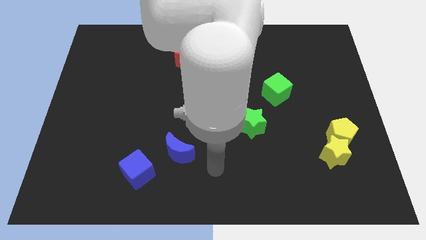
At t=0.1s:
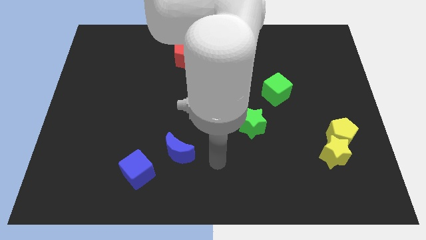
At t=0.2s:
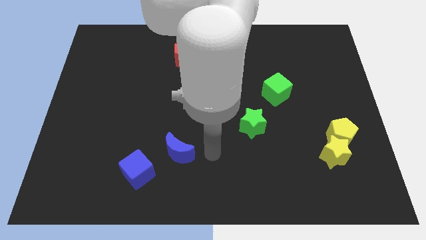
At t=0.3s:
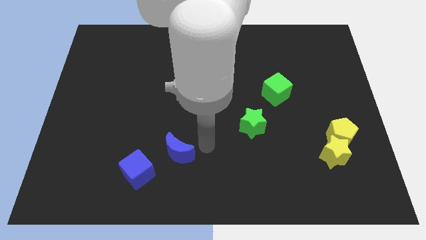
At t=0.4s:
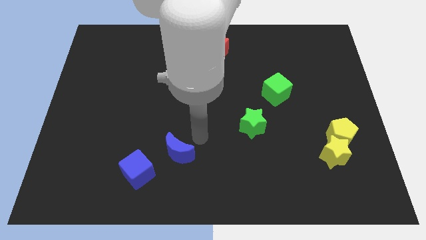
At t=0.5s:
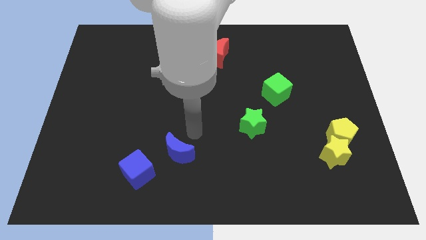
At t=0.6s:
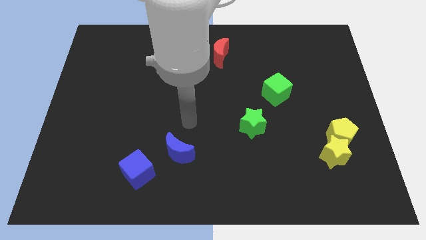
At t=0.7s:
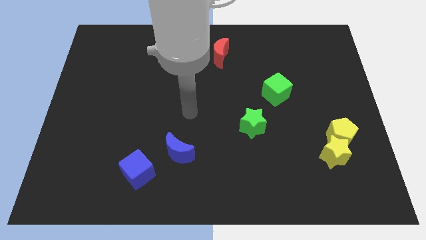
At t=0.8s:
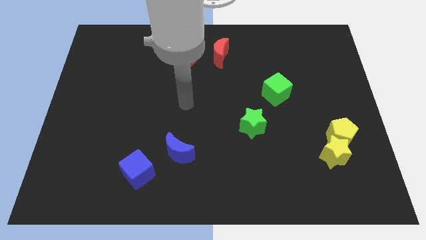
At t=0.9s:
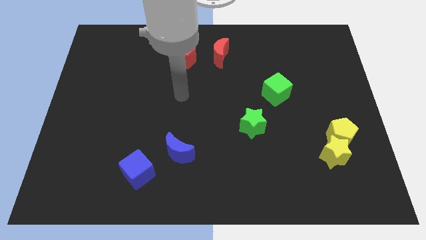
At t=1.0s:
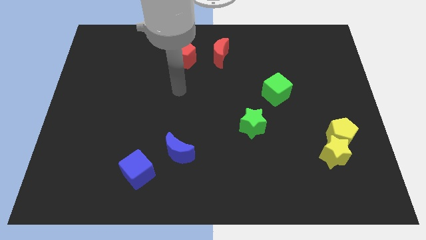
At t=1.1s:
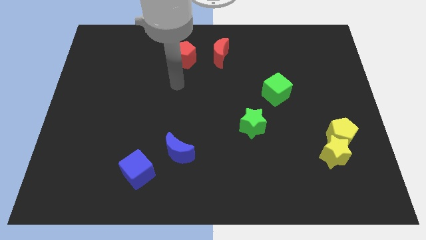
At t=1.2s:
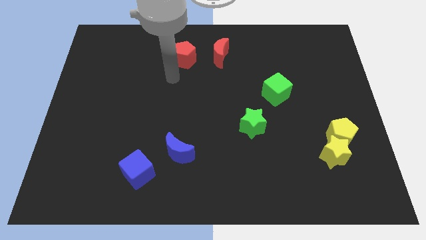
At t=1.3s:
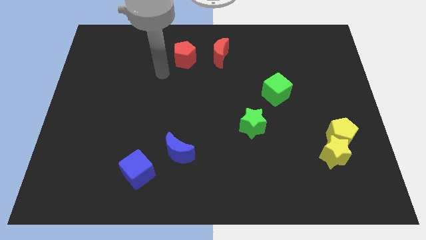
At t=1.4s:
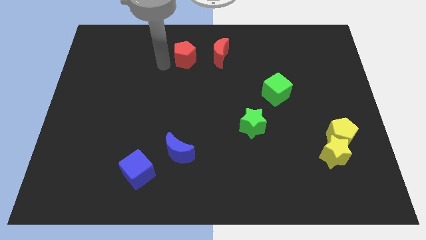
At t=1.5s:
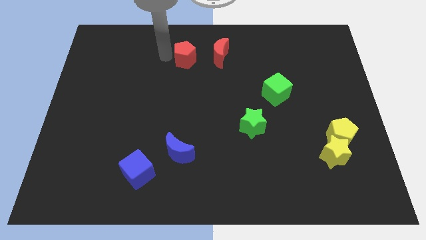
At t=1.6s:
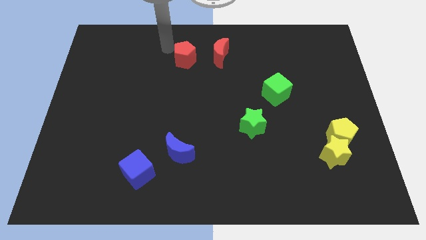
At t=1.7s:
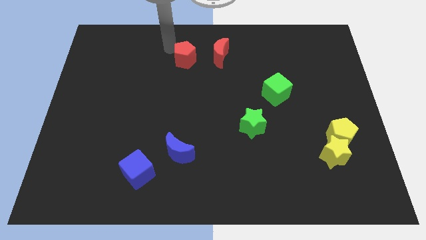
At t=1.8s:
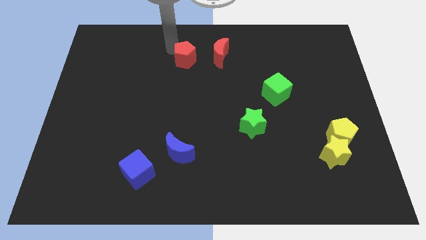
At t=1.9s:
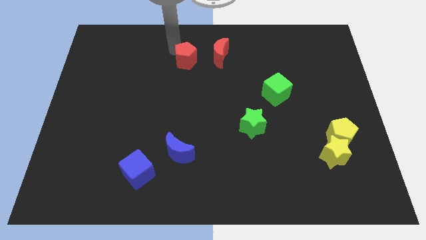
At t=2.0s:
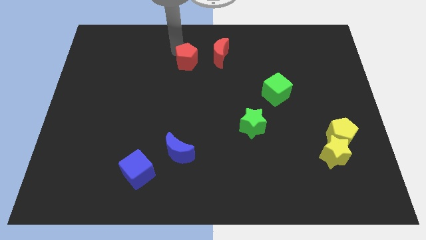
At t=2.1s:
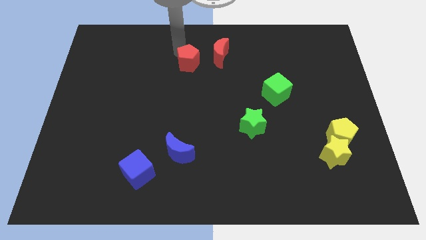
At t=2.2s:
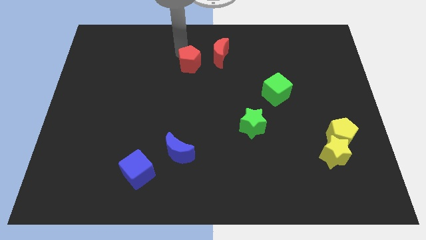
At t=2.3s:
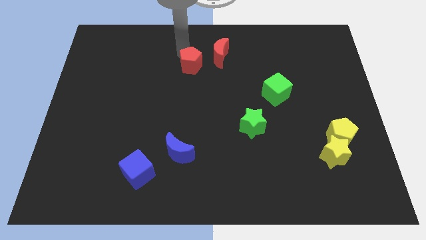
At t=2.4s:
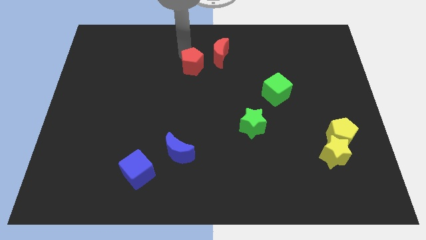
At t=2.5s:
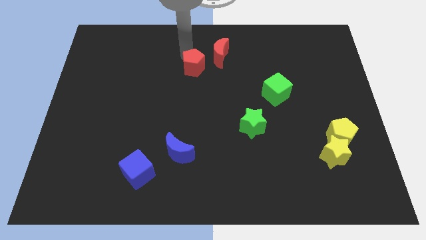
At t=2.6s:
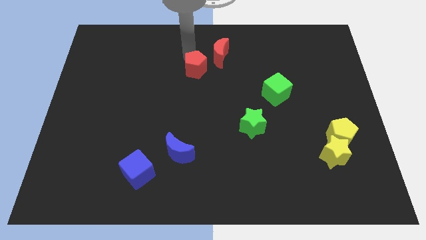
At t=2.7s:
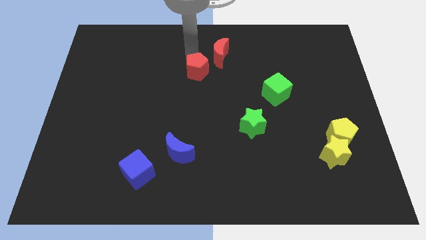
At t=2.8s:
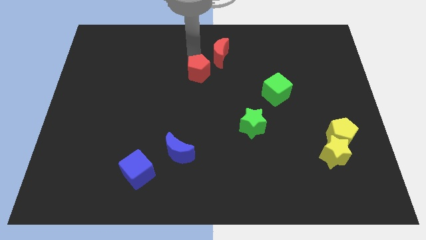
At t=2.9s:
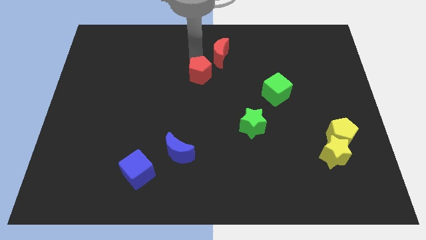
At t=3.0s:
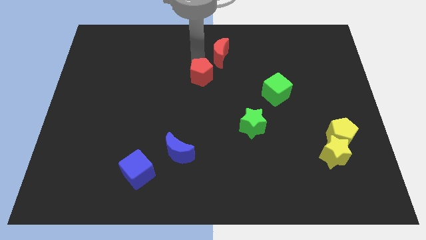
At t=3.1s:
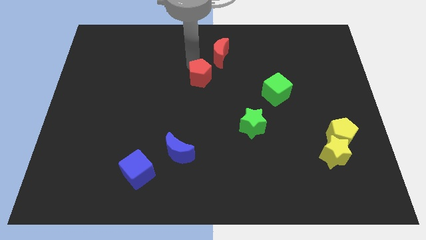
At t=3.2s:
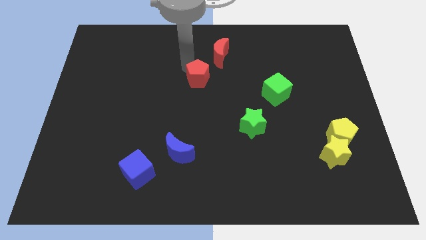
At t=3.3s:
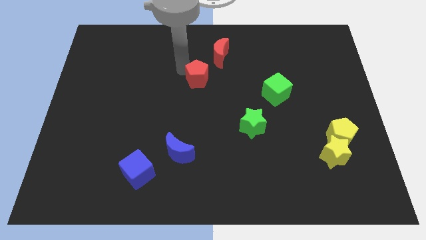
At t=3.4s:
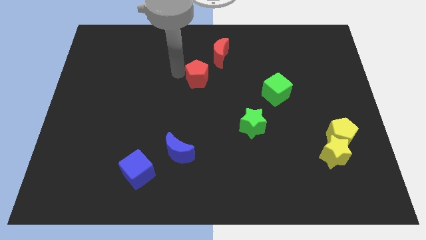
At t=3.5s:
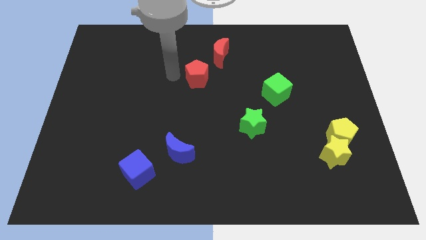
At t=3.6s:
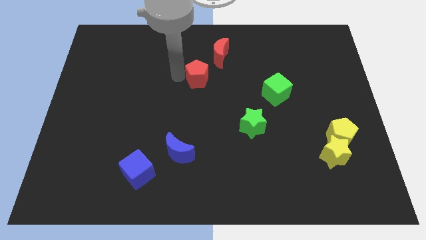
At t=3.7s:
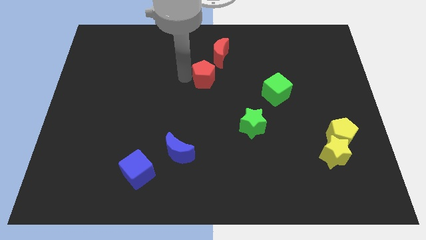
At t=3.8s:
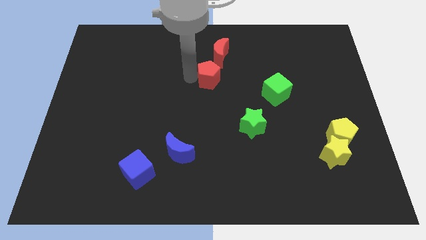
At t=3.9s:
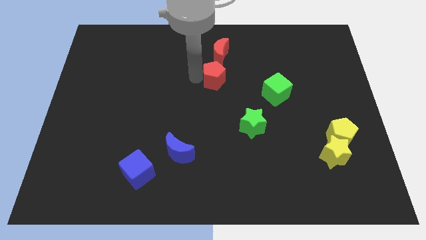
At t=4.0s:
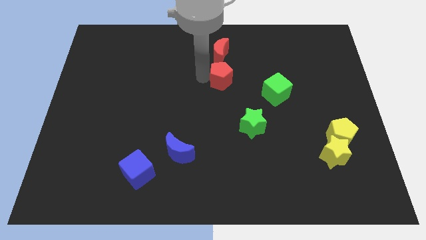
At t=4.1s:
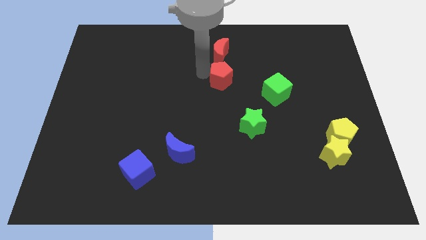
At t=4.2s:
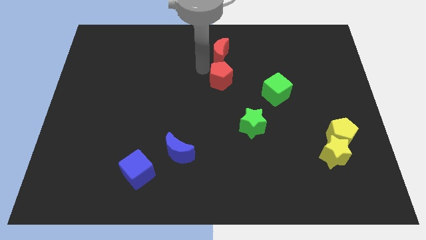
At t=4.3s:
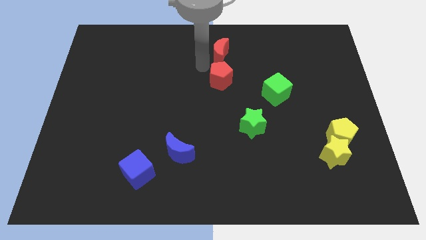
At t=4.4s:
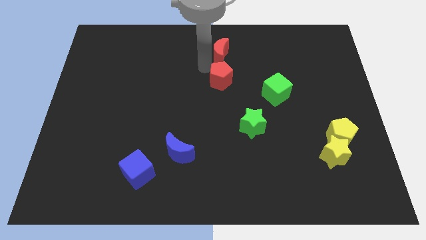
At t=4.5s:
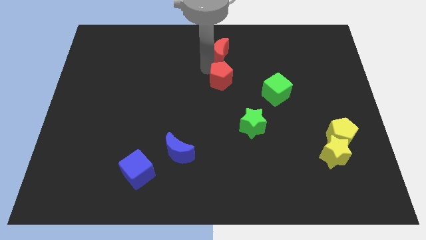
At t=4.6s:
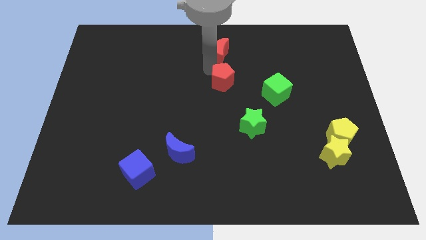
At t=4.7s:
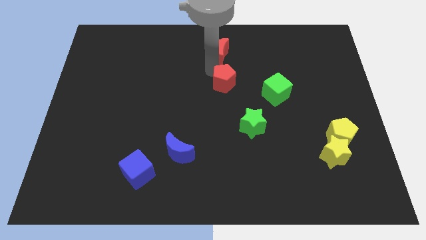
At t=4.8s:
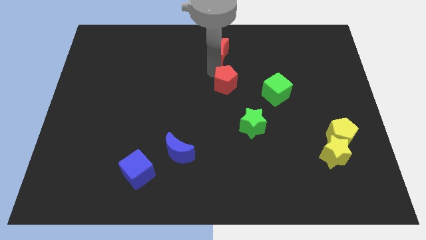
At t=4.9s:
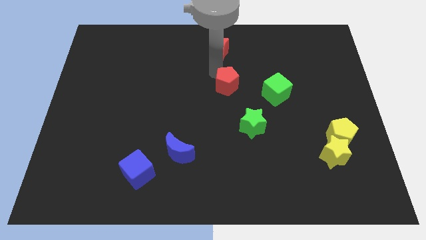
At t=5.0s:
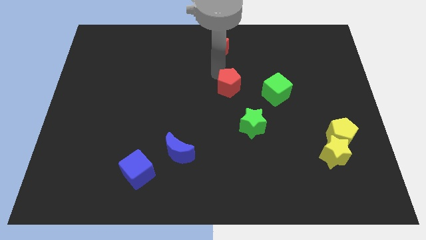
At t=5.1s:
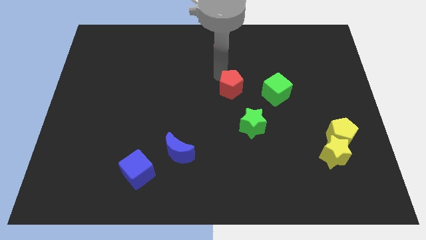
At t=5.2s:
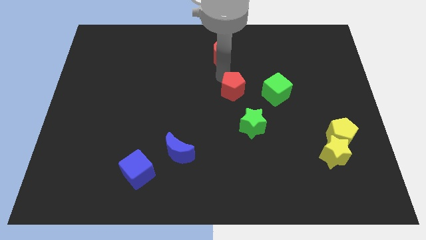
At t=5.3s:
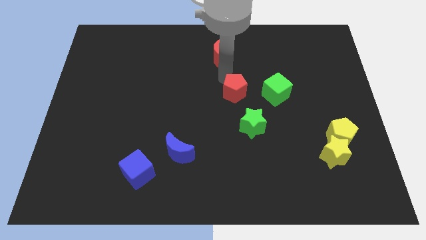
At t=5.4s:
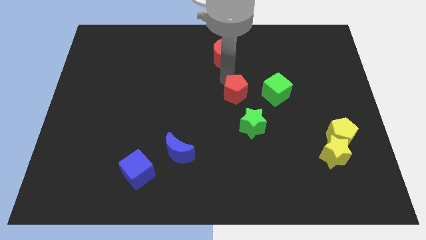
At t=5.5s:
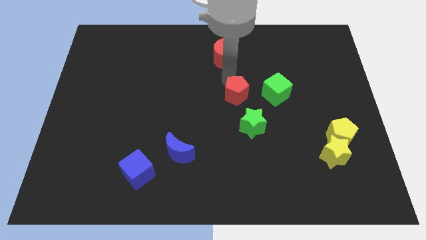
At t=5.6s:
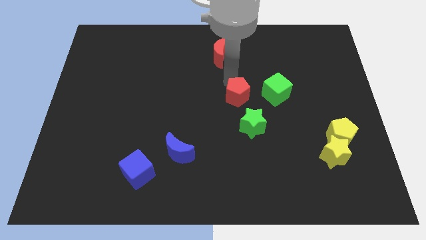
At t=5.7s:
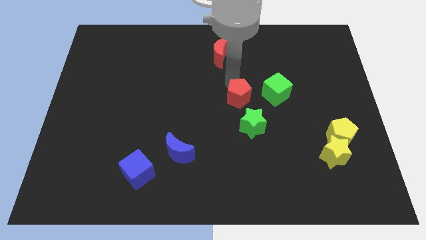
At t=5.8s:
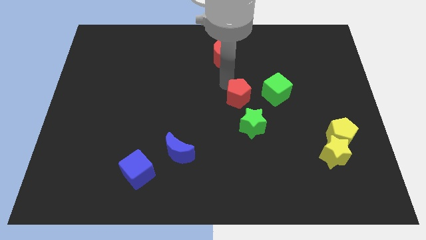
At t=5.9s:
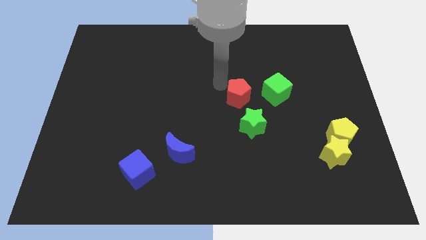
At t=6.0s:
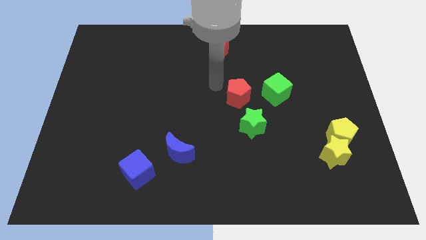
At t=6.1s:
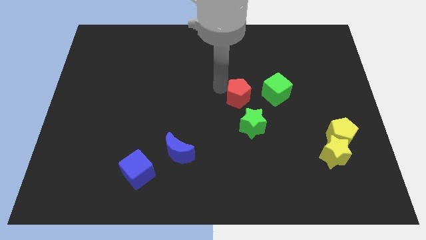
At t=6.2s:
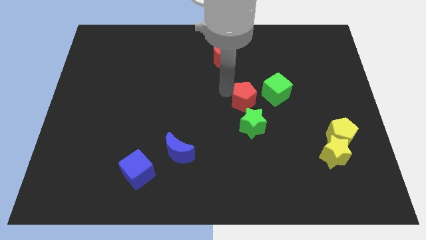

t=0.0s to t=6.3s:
slide the red pentagon downwards and then right

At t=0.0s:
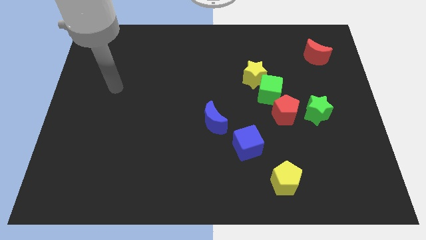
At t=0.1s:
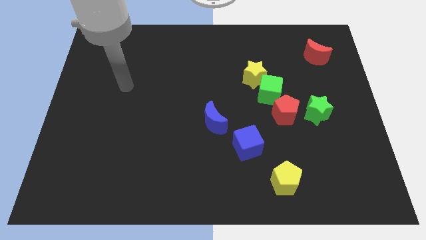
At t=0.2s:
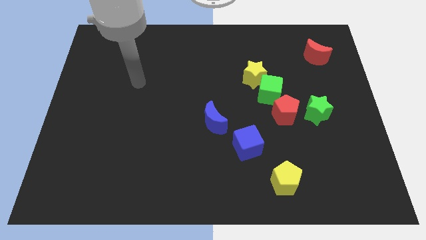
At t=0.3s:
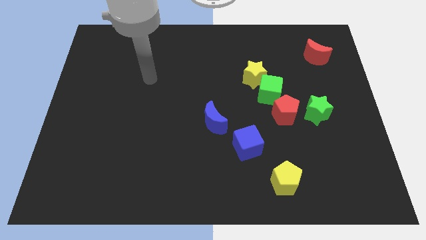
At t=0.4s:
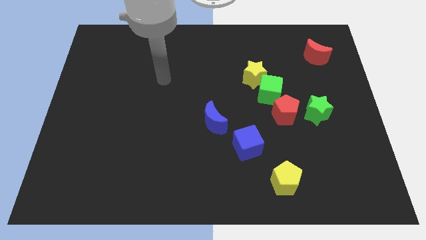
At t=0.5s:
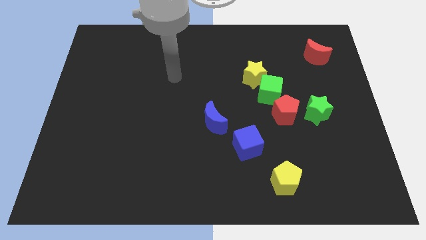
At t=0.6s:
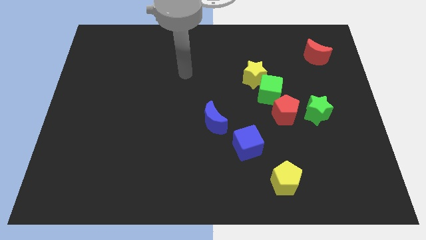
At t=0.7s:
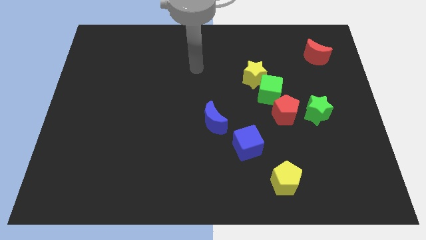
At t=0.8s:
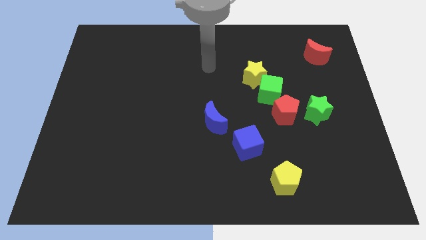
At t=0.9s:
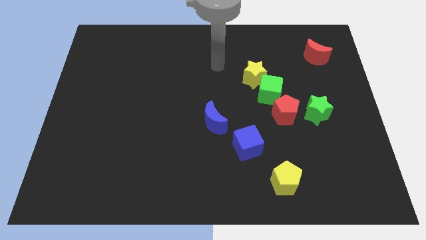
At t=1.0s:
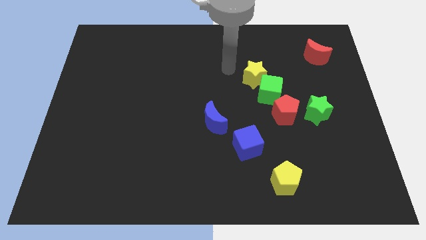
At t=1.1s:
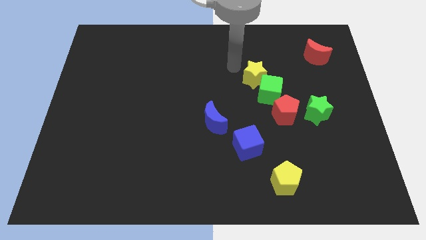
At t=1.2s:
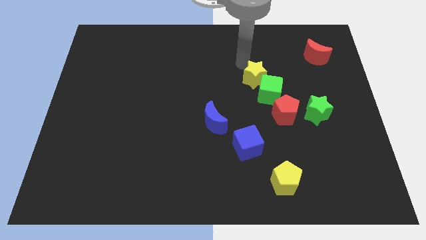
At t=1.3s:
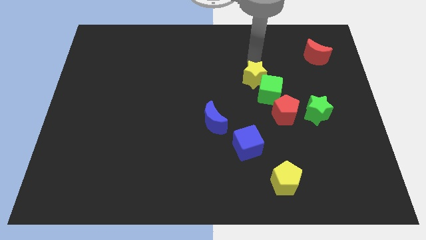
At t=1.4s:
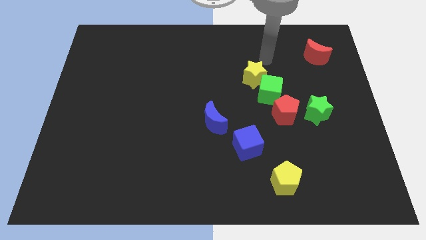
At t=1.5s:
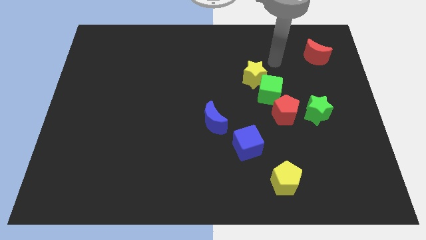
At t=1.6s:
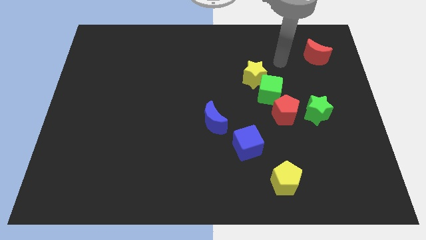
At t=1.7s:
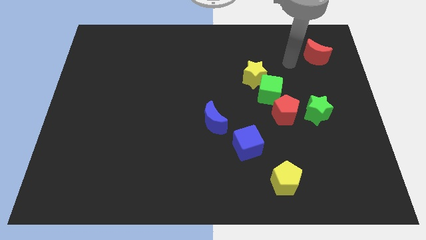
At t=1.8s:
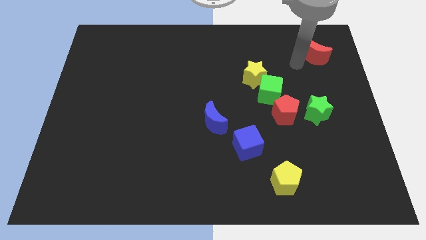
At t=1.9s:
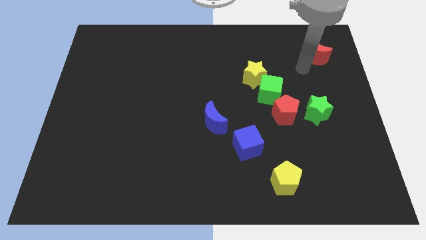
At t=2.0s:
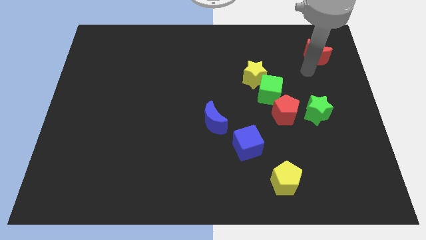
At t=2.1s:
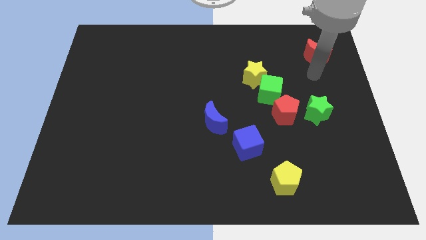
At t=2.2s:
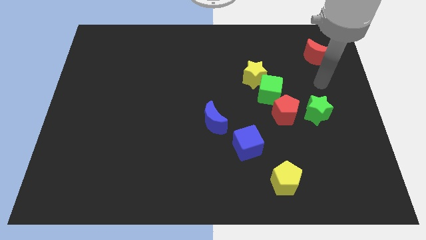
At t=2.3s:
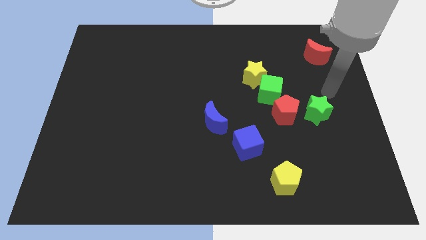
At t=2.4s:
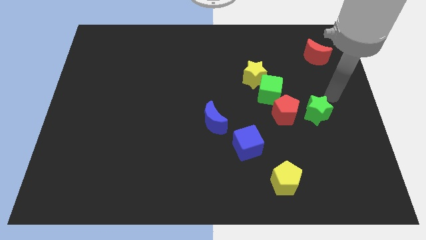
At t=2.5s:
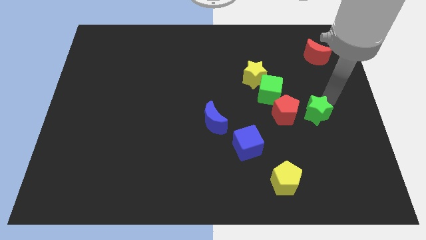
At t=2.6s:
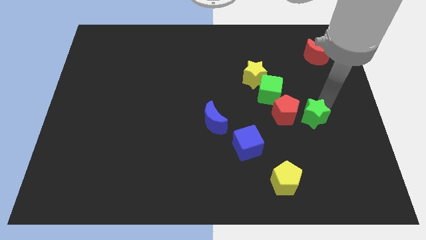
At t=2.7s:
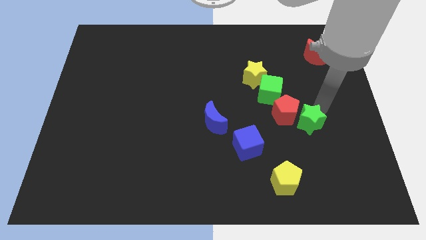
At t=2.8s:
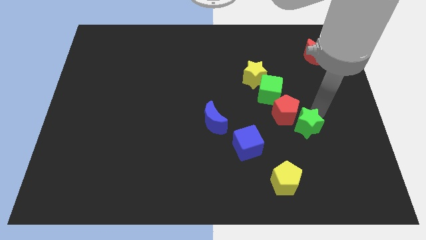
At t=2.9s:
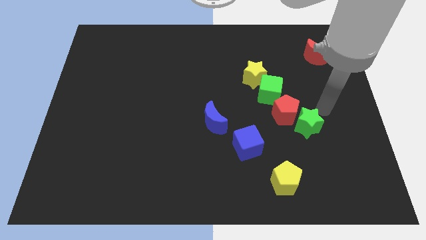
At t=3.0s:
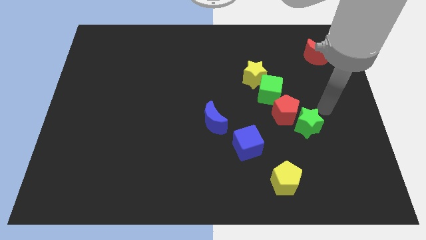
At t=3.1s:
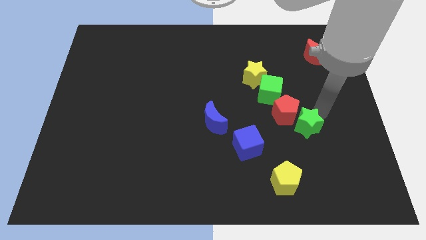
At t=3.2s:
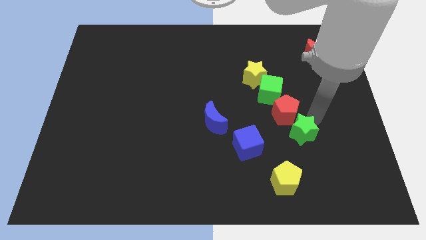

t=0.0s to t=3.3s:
push the green star a little diagonally down and left
